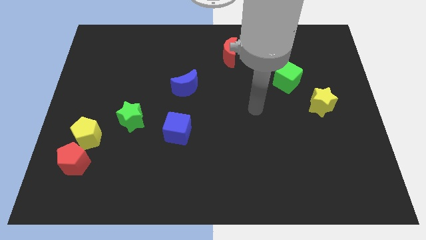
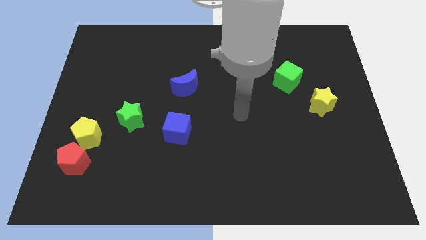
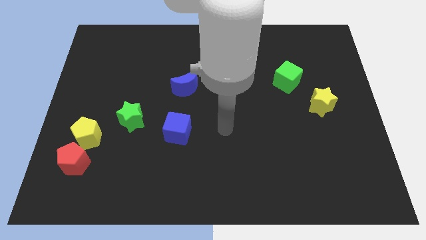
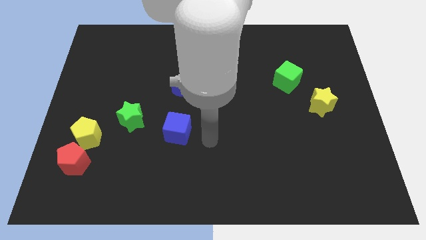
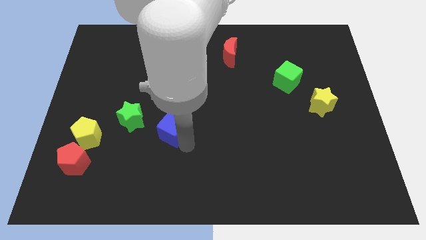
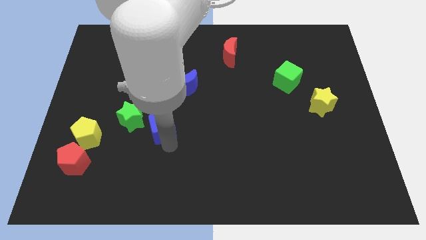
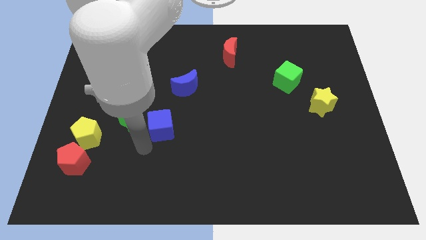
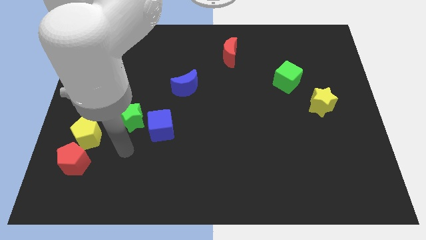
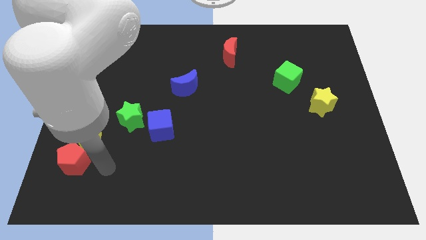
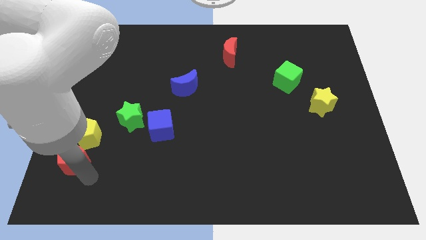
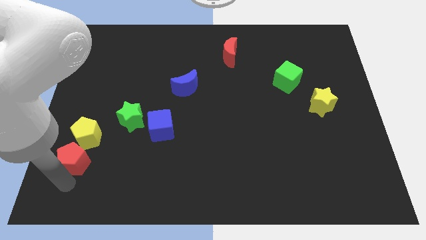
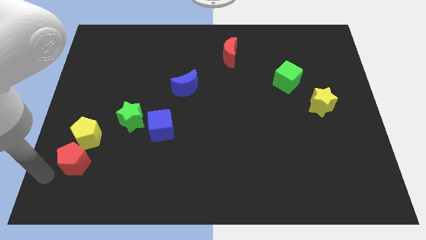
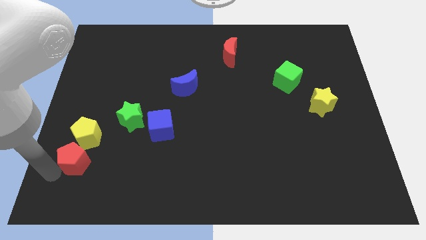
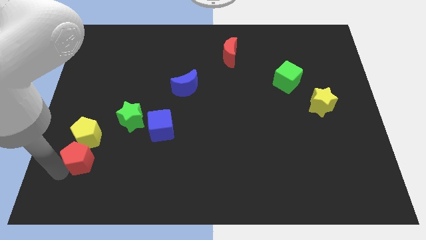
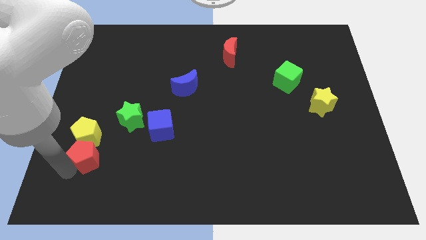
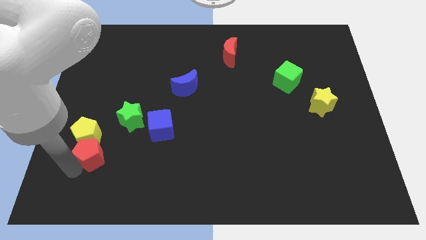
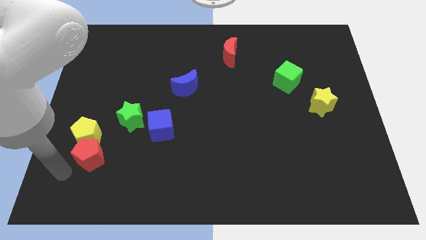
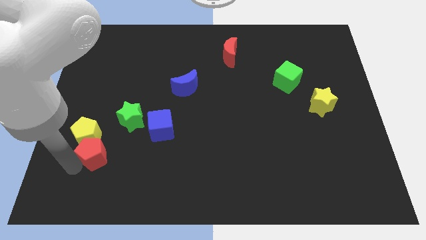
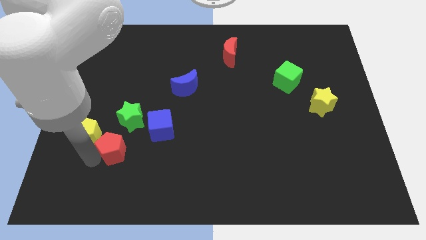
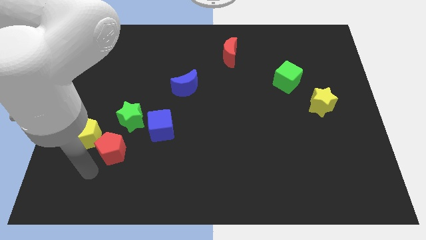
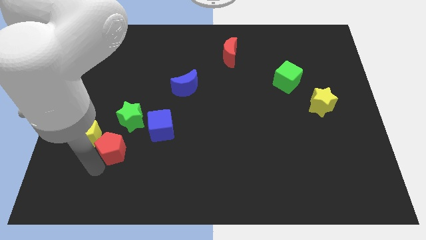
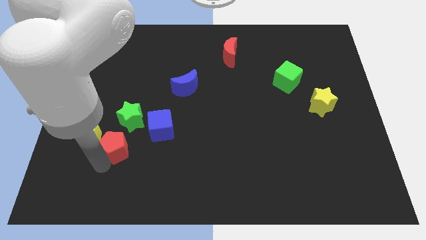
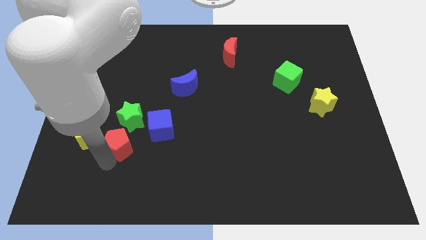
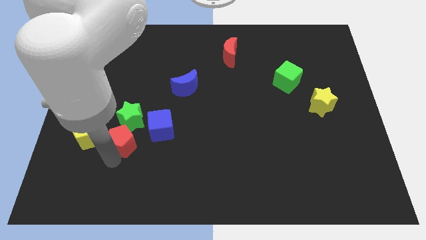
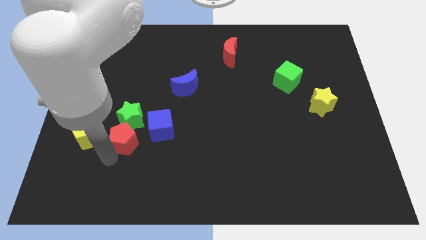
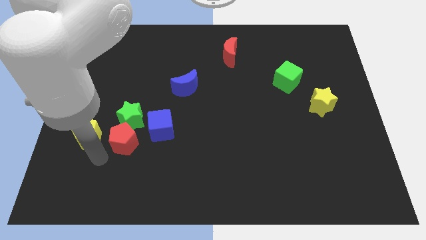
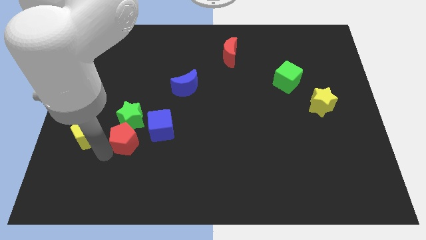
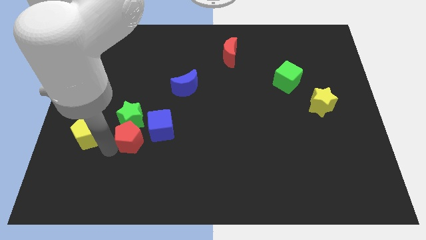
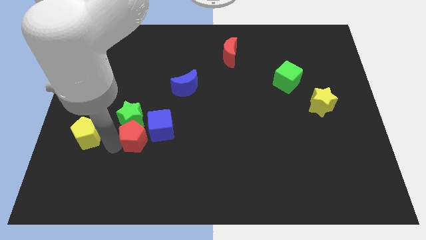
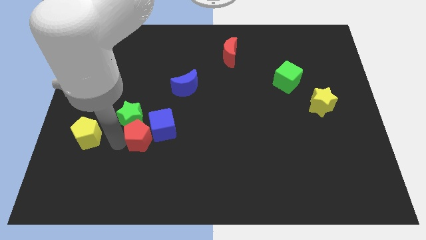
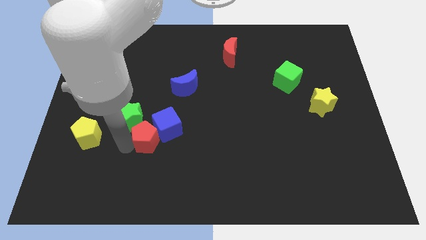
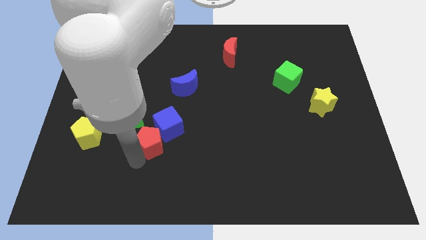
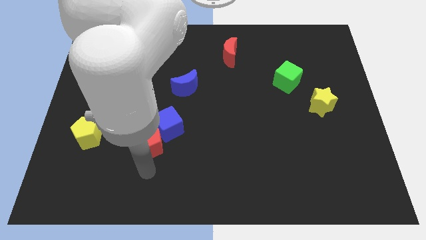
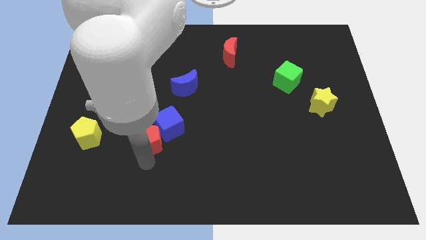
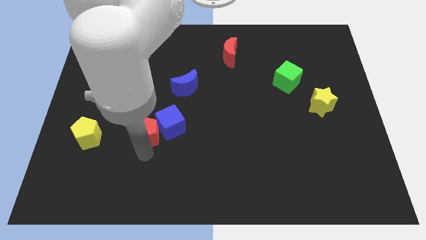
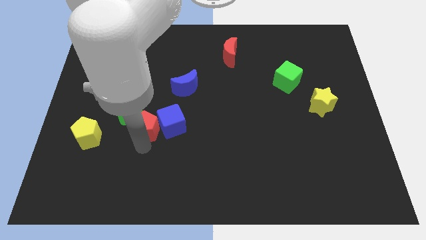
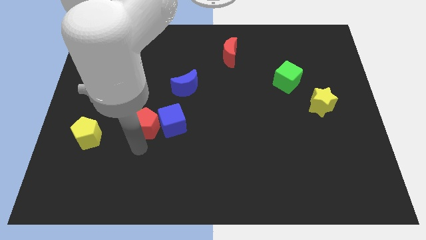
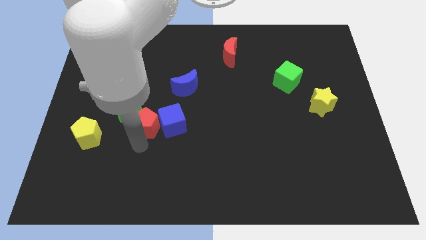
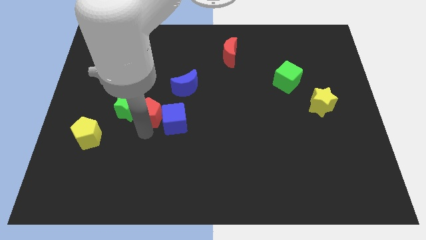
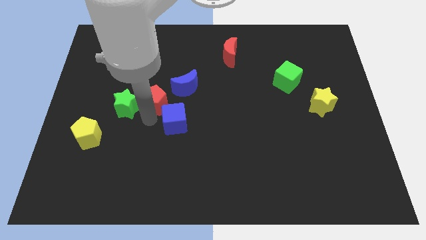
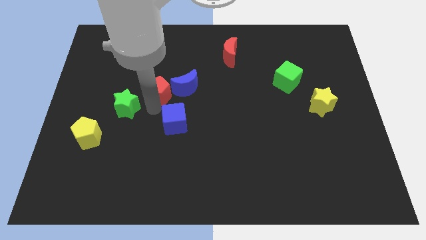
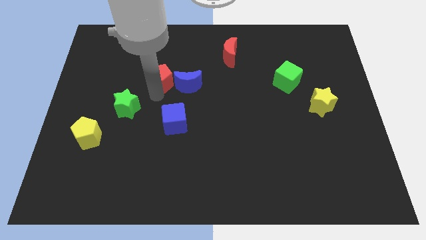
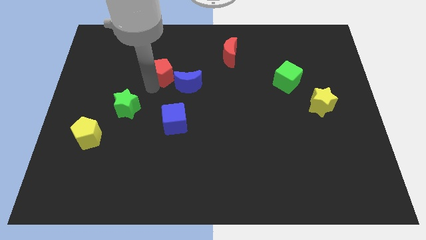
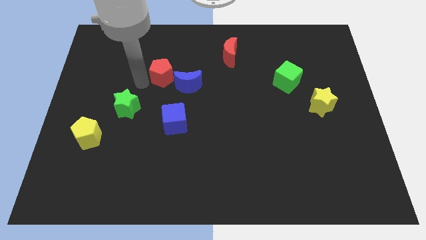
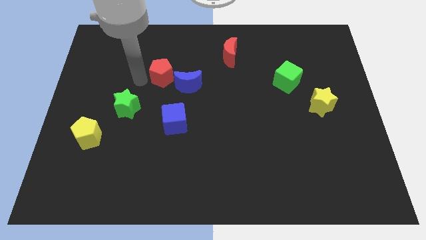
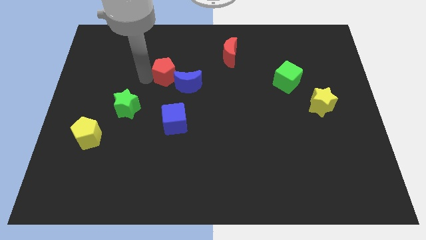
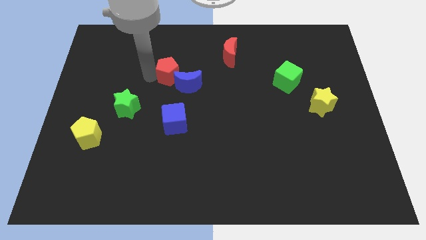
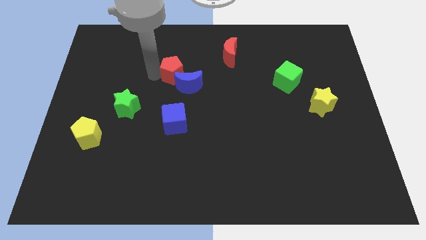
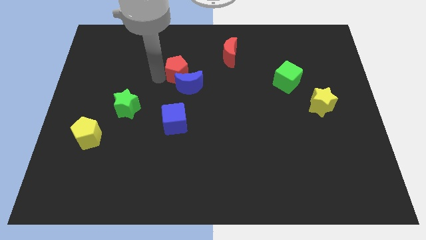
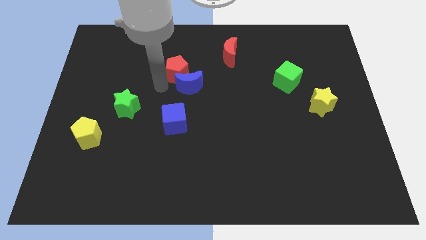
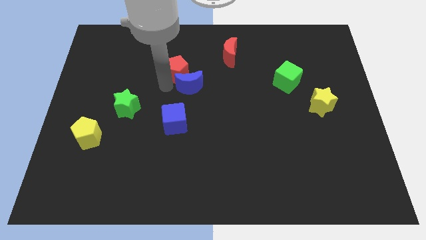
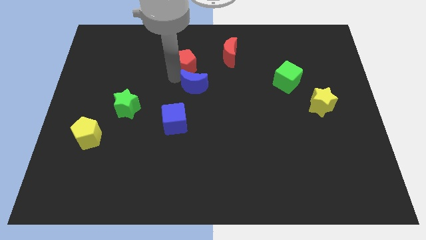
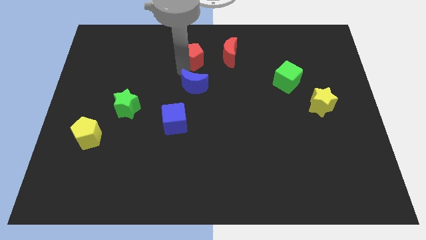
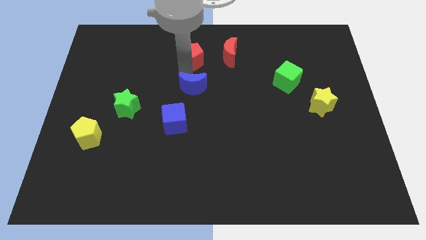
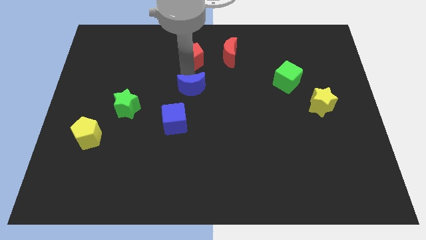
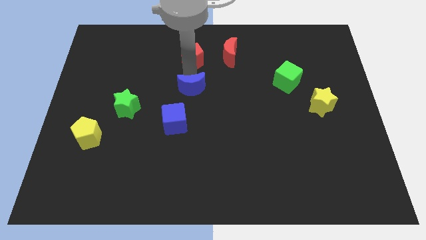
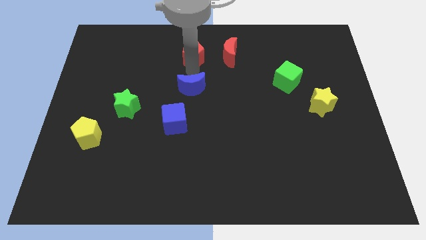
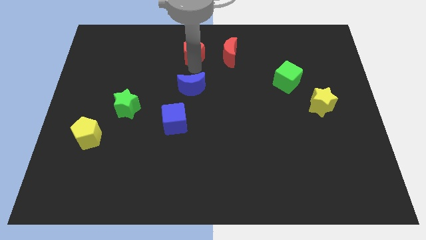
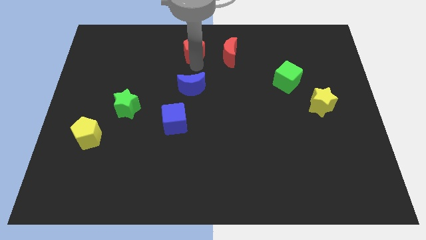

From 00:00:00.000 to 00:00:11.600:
put the red pentagon to the top side
